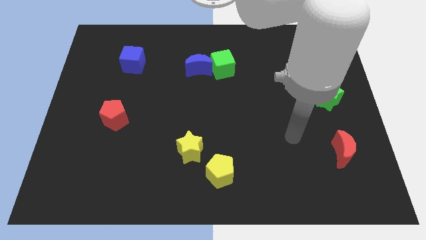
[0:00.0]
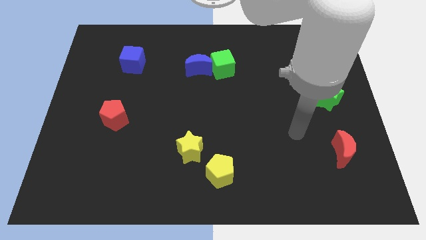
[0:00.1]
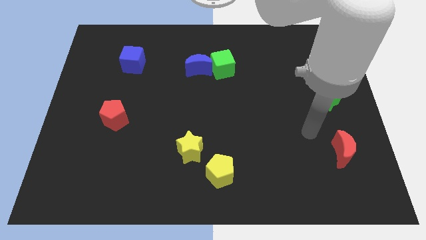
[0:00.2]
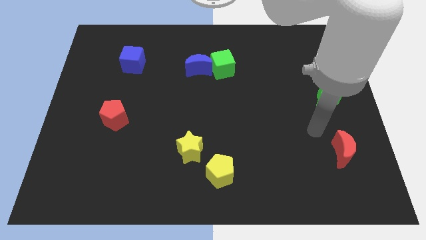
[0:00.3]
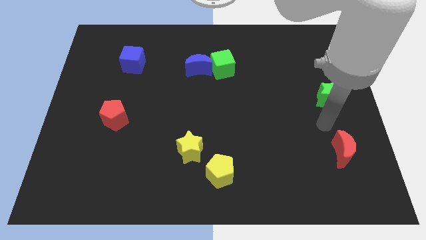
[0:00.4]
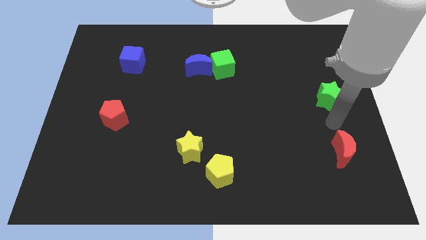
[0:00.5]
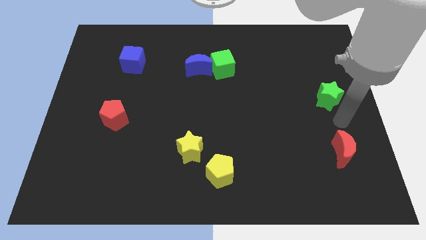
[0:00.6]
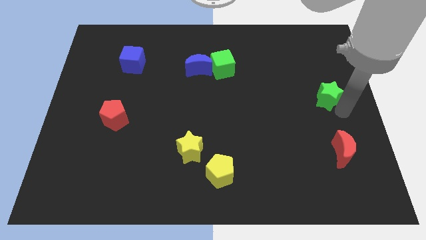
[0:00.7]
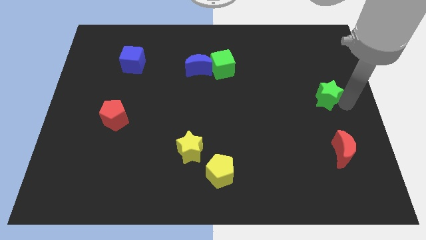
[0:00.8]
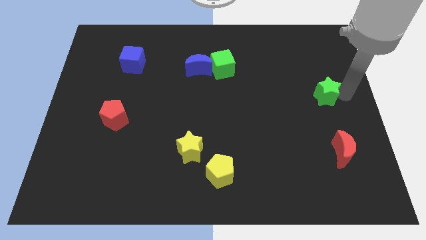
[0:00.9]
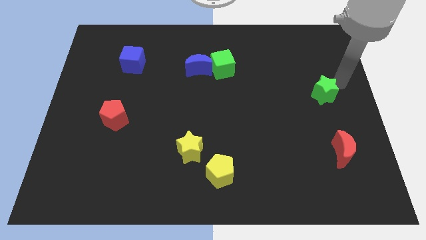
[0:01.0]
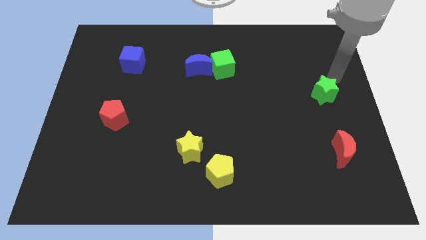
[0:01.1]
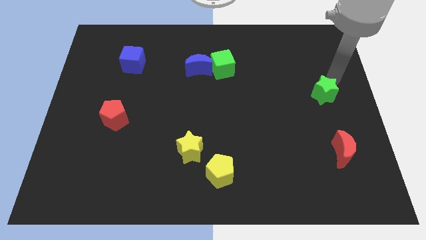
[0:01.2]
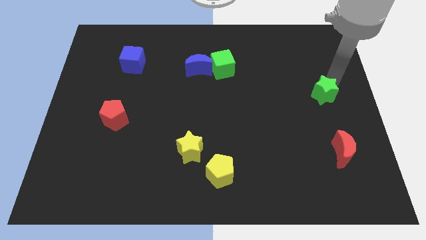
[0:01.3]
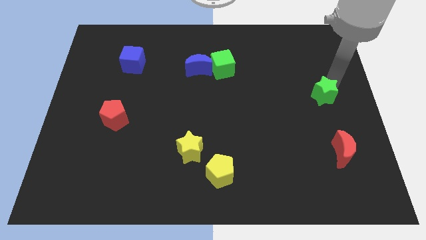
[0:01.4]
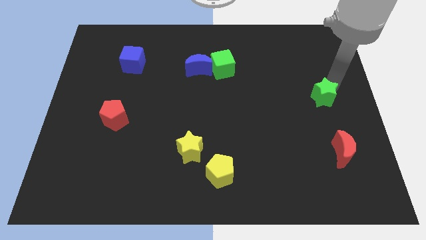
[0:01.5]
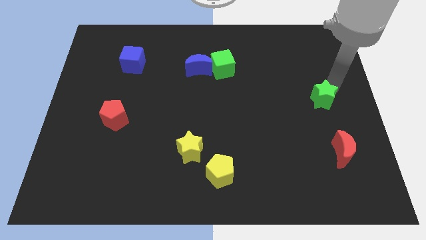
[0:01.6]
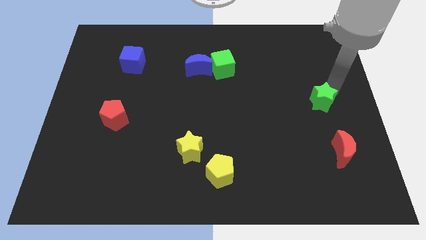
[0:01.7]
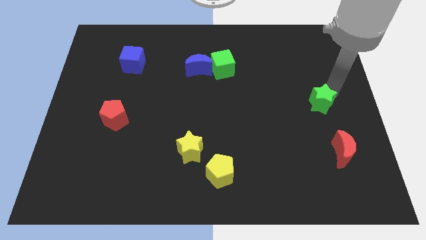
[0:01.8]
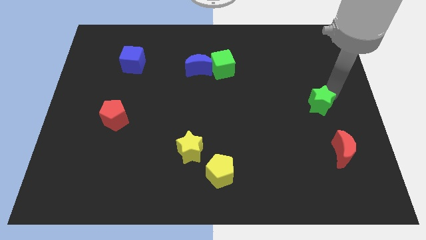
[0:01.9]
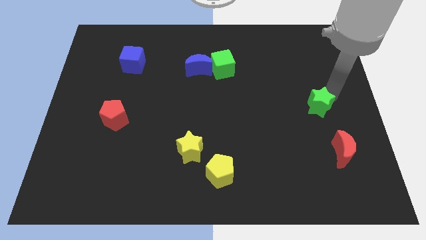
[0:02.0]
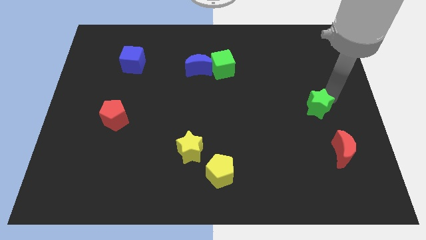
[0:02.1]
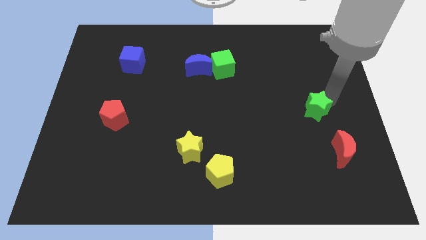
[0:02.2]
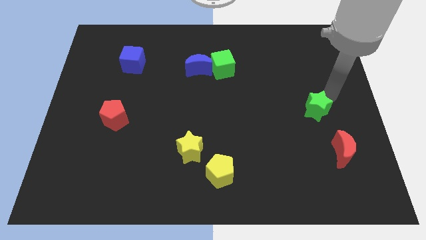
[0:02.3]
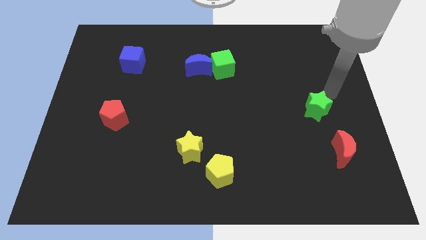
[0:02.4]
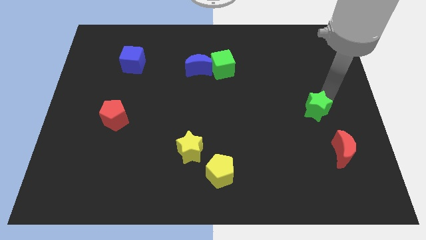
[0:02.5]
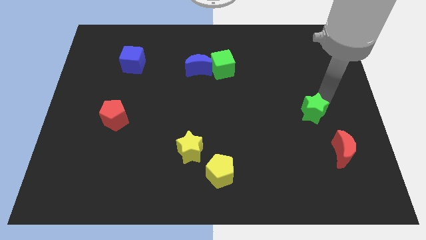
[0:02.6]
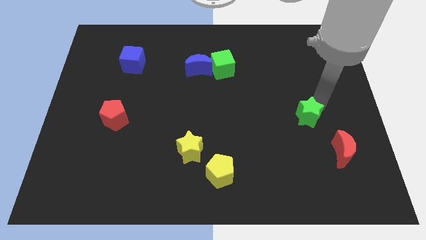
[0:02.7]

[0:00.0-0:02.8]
slightly move the green star downwards and left

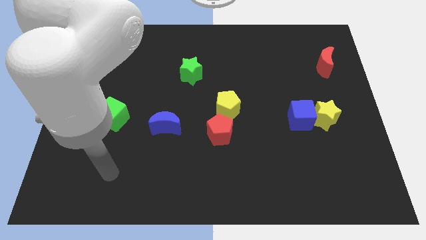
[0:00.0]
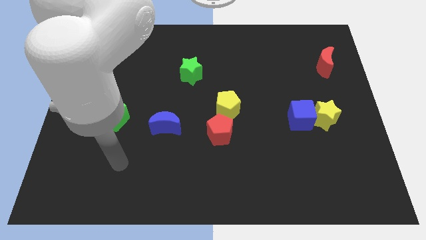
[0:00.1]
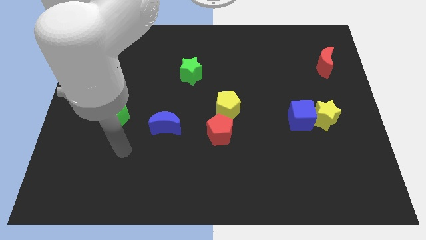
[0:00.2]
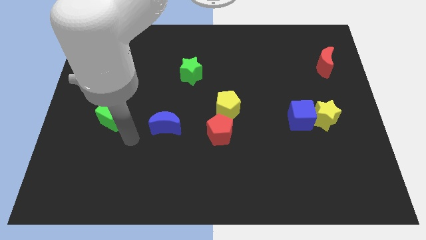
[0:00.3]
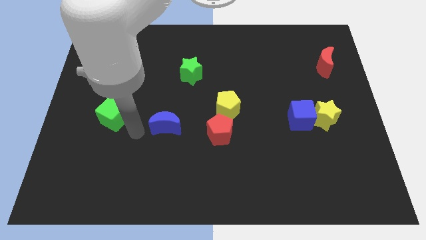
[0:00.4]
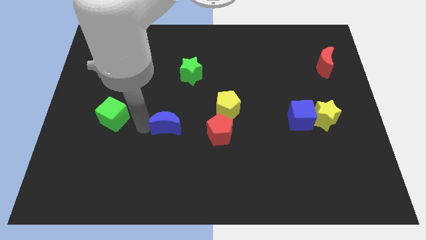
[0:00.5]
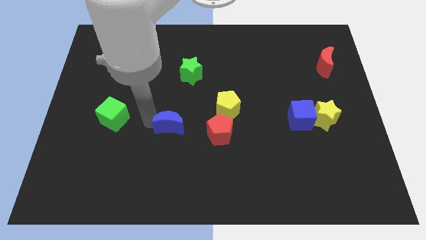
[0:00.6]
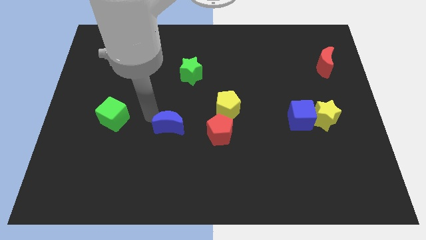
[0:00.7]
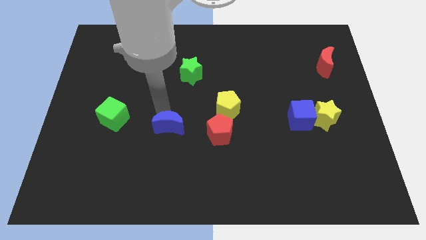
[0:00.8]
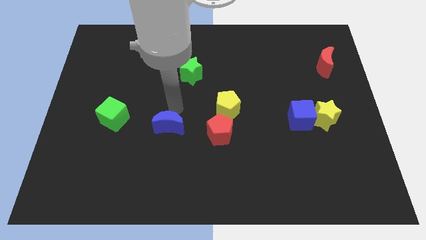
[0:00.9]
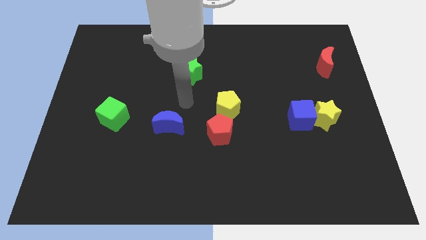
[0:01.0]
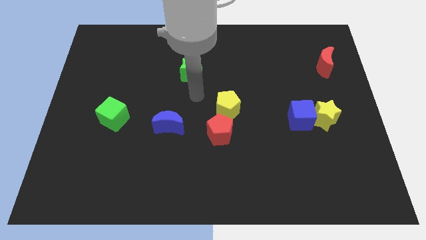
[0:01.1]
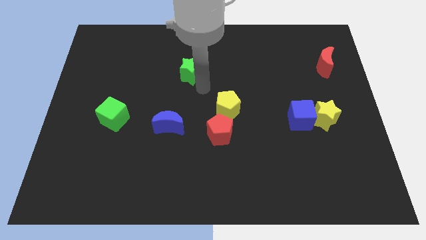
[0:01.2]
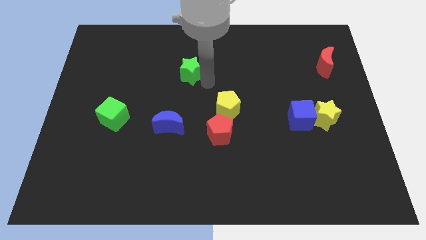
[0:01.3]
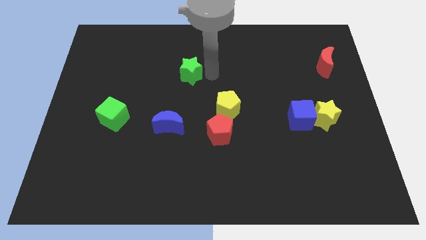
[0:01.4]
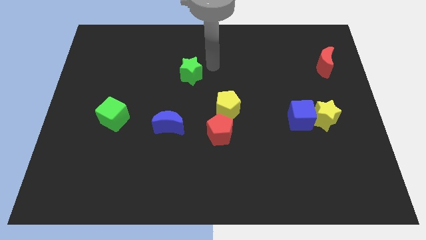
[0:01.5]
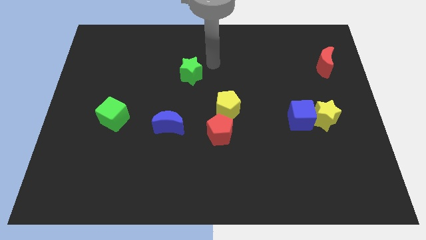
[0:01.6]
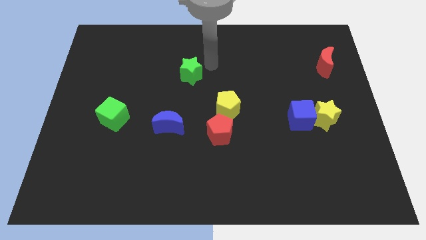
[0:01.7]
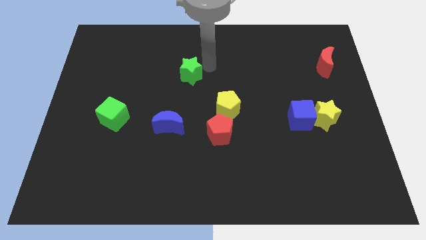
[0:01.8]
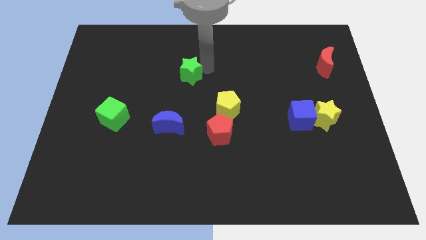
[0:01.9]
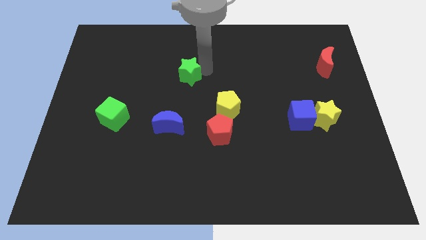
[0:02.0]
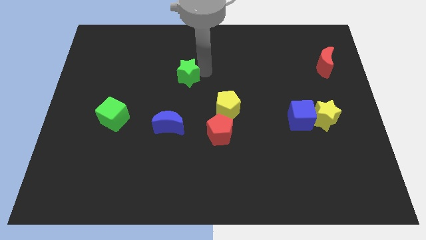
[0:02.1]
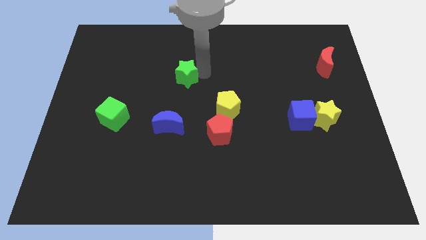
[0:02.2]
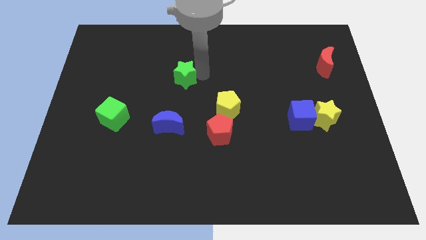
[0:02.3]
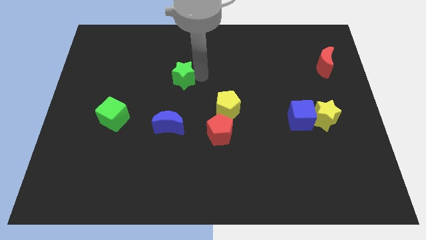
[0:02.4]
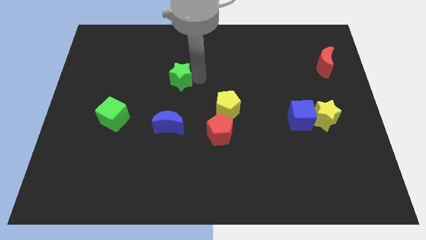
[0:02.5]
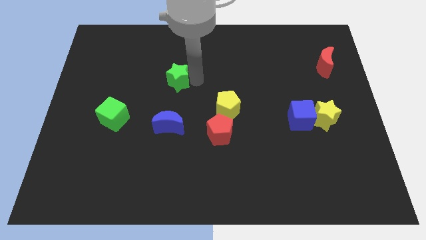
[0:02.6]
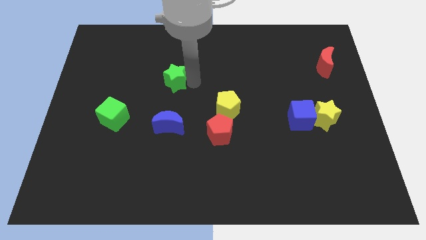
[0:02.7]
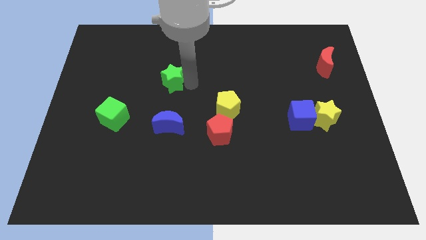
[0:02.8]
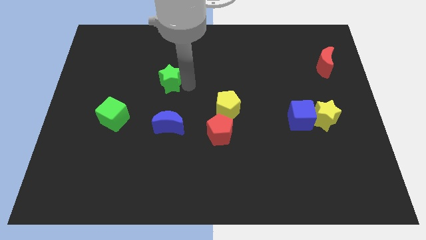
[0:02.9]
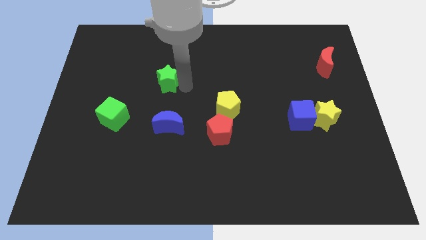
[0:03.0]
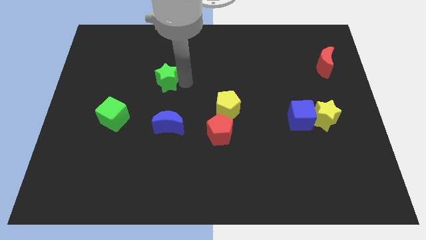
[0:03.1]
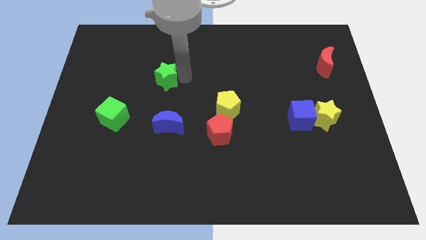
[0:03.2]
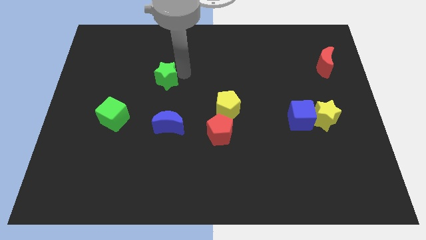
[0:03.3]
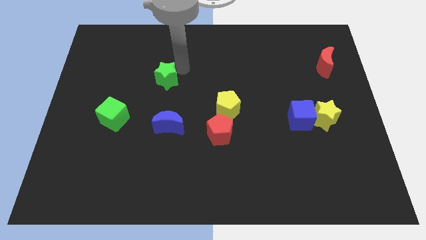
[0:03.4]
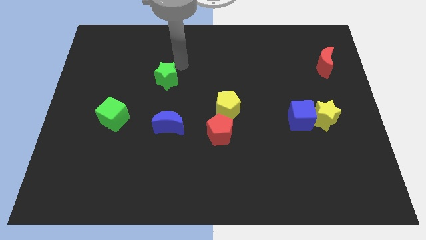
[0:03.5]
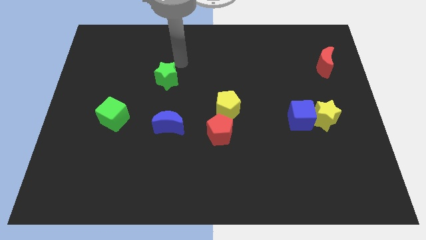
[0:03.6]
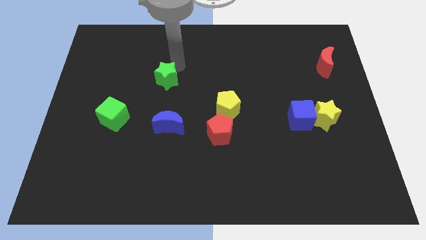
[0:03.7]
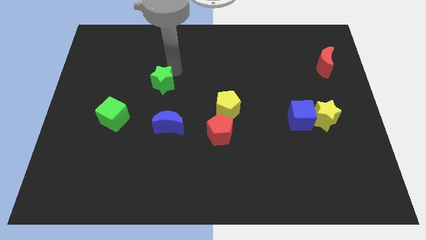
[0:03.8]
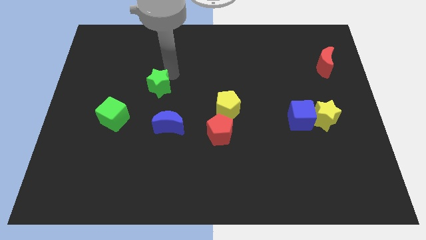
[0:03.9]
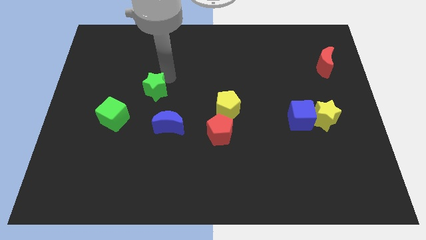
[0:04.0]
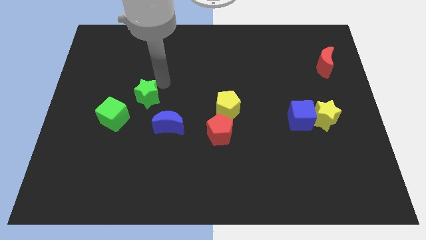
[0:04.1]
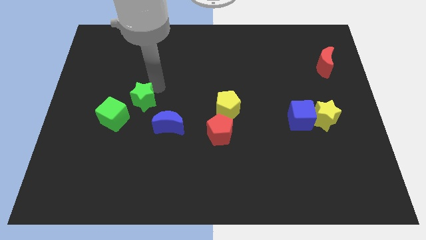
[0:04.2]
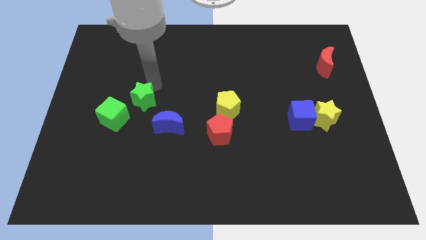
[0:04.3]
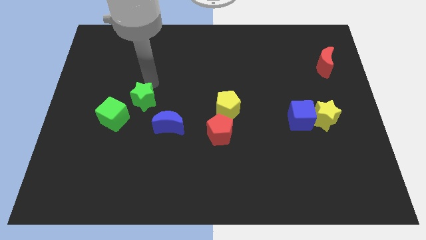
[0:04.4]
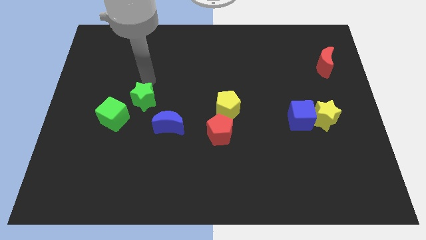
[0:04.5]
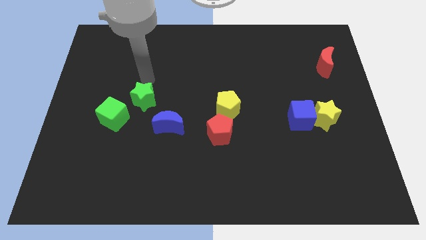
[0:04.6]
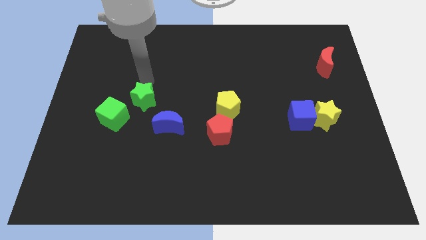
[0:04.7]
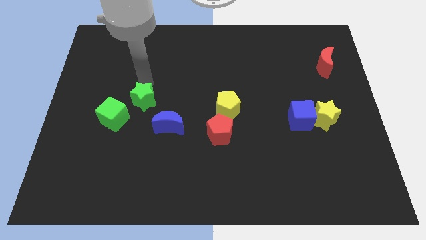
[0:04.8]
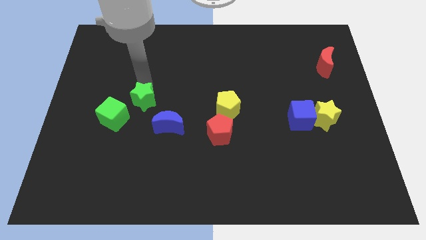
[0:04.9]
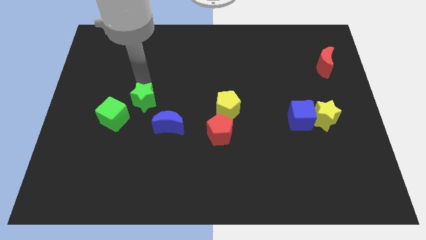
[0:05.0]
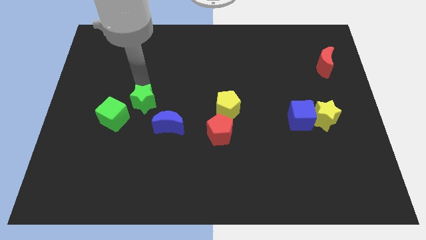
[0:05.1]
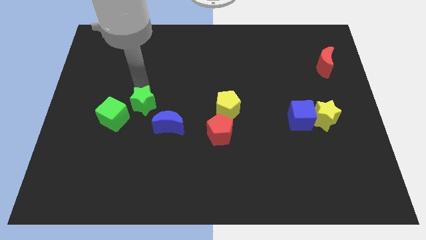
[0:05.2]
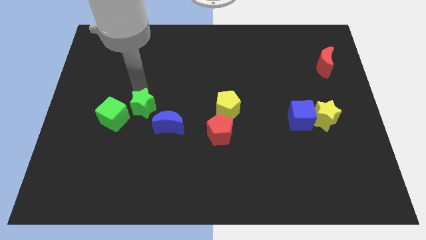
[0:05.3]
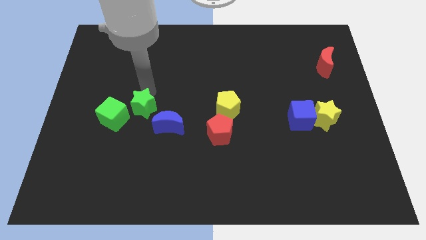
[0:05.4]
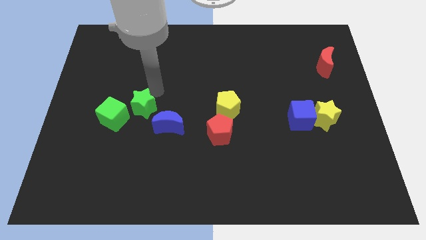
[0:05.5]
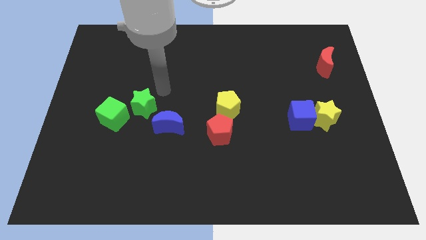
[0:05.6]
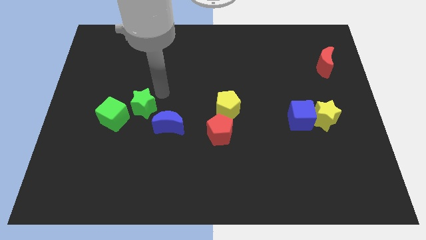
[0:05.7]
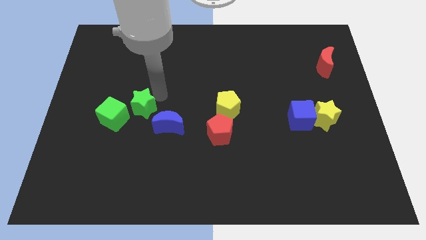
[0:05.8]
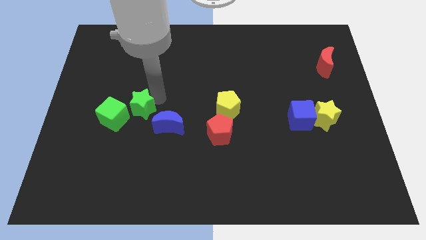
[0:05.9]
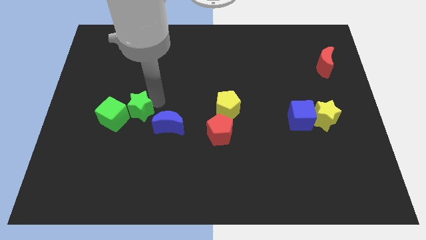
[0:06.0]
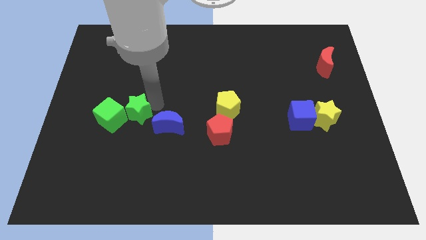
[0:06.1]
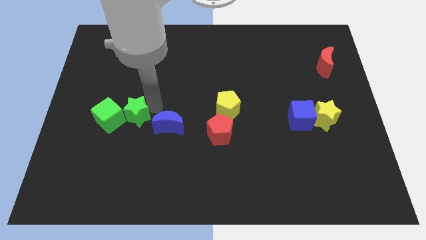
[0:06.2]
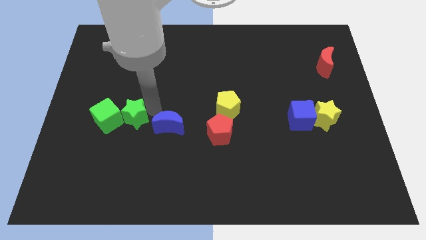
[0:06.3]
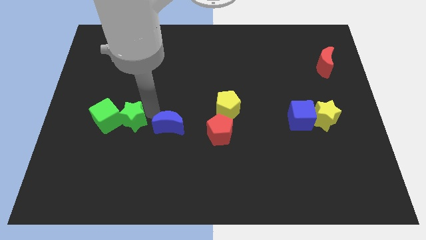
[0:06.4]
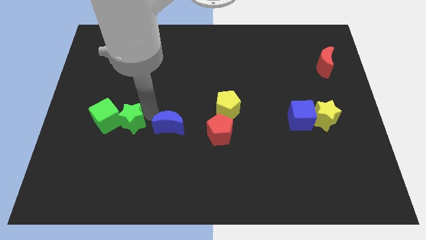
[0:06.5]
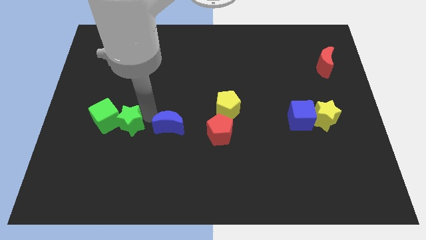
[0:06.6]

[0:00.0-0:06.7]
move the green star downwards and left
